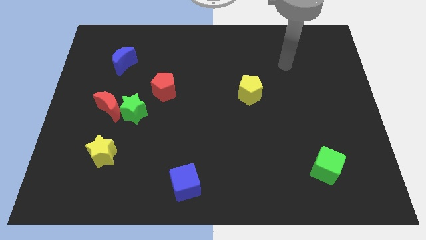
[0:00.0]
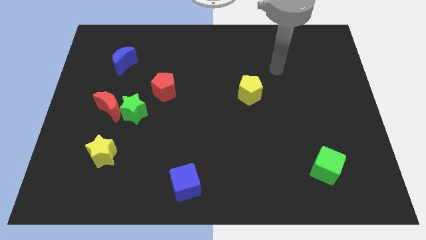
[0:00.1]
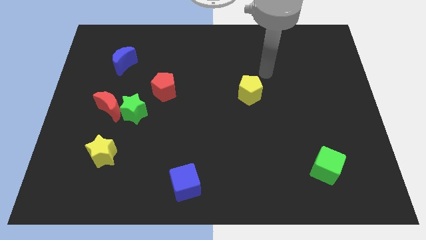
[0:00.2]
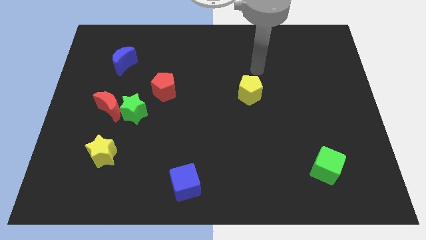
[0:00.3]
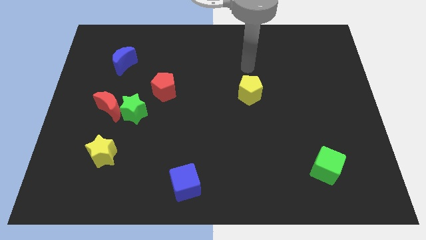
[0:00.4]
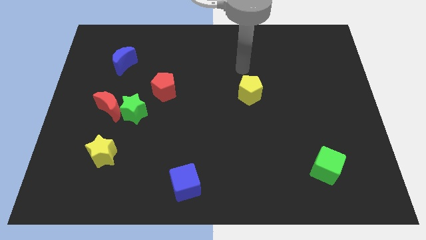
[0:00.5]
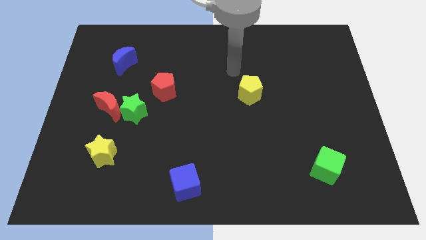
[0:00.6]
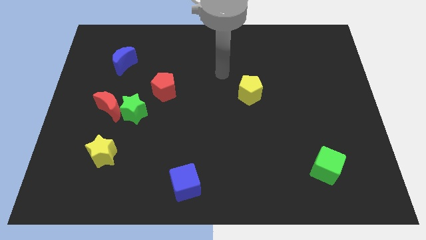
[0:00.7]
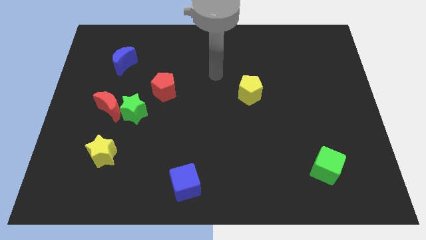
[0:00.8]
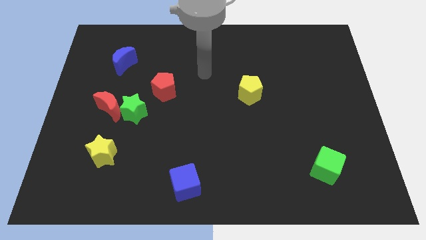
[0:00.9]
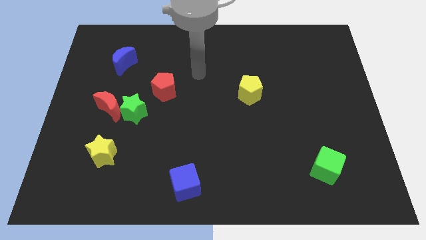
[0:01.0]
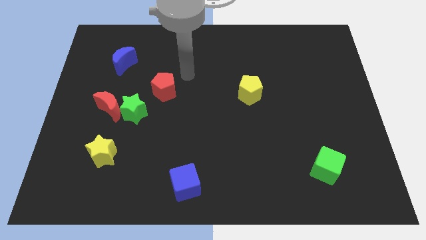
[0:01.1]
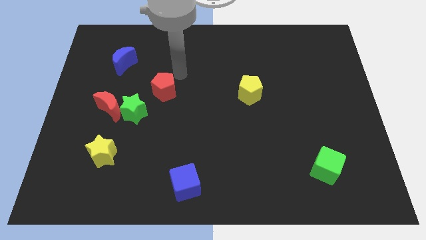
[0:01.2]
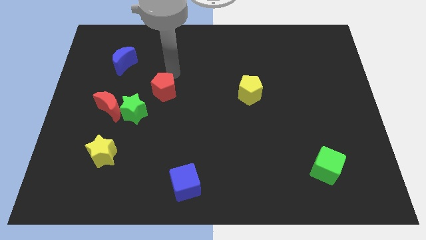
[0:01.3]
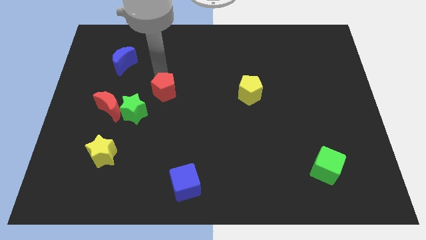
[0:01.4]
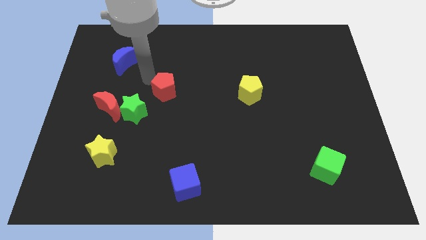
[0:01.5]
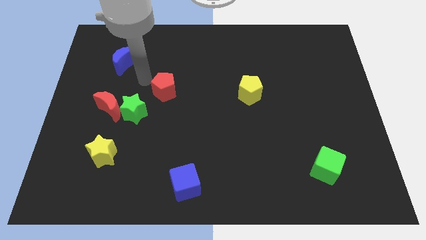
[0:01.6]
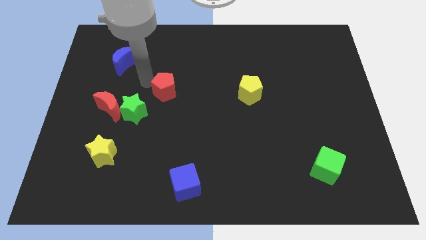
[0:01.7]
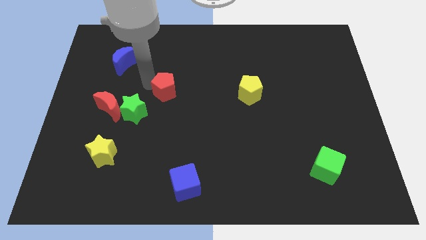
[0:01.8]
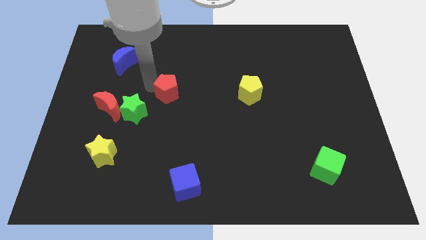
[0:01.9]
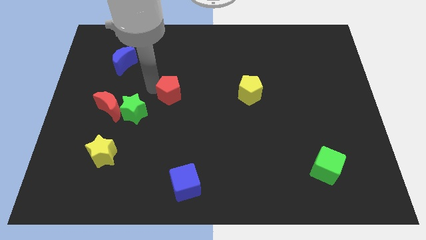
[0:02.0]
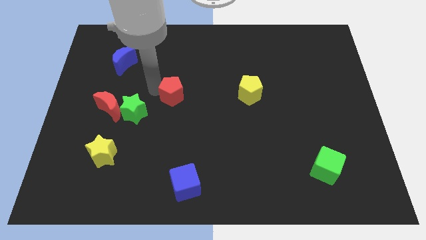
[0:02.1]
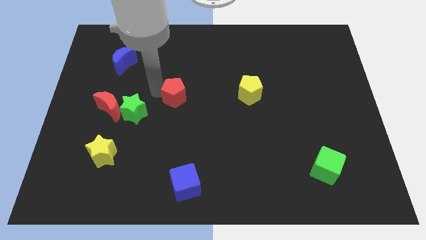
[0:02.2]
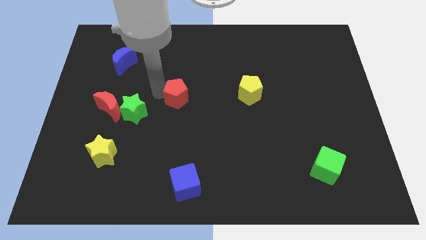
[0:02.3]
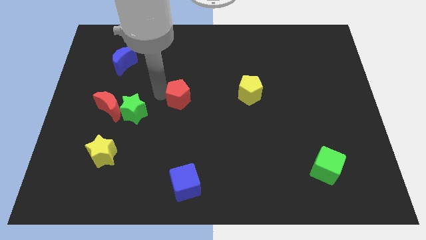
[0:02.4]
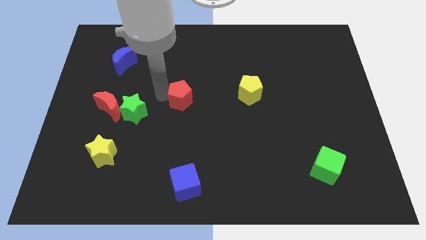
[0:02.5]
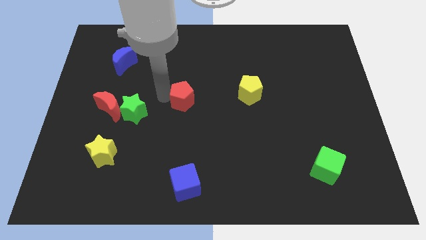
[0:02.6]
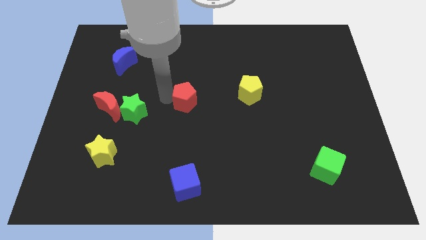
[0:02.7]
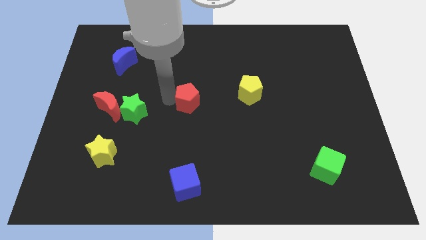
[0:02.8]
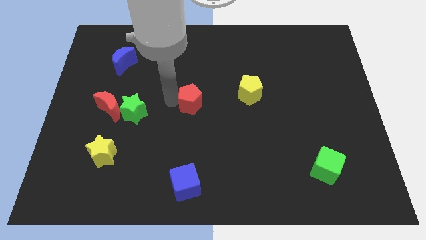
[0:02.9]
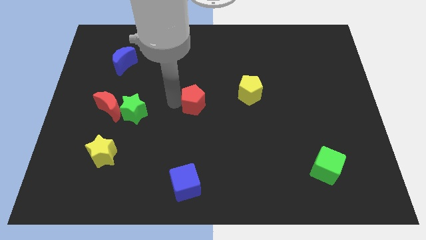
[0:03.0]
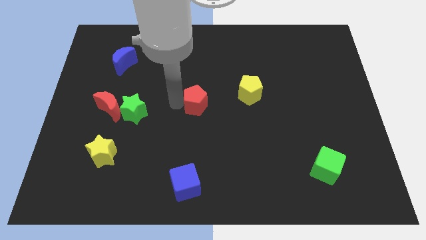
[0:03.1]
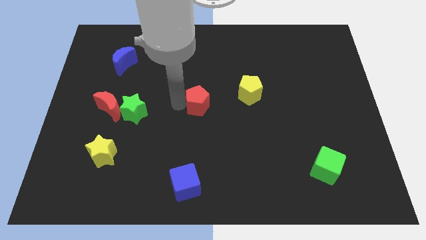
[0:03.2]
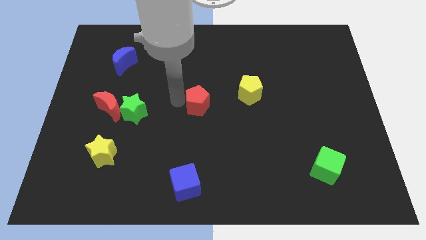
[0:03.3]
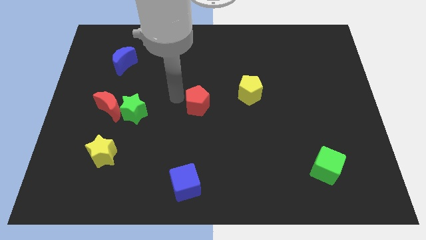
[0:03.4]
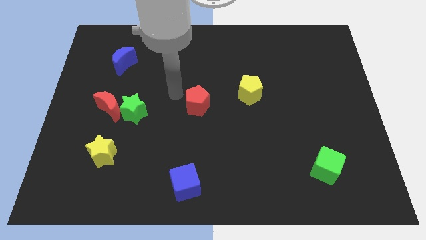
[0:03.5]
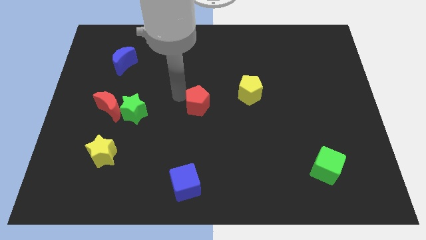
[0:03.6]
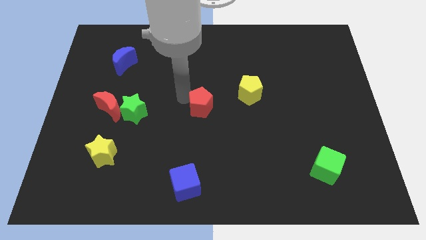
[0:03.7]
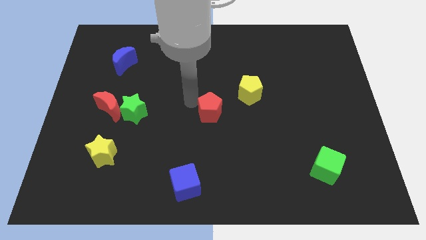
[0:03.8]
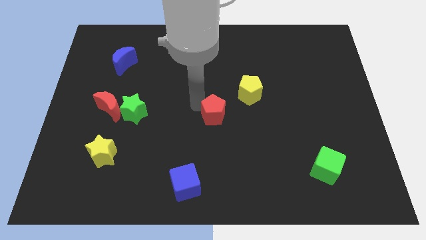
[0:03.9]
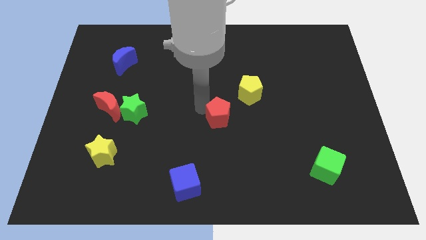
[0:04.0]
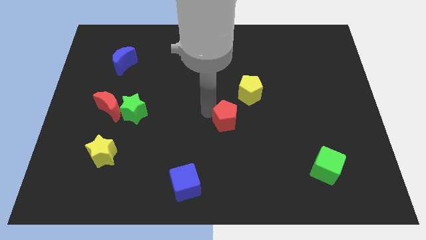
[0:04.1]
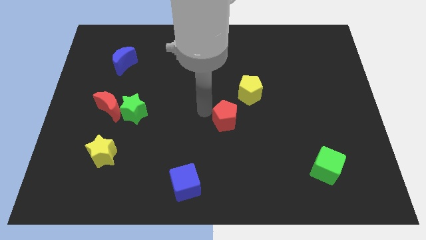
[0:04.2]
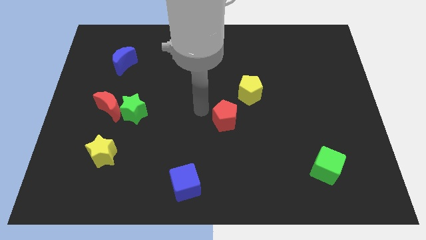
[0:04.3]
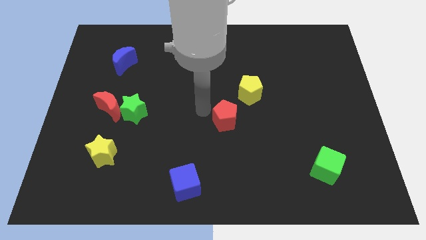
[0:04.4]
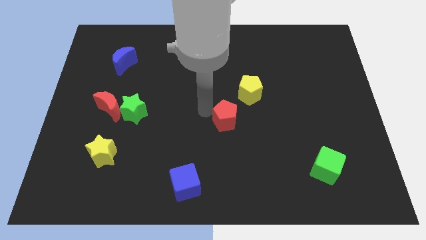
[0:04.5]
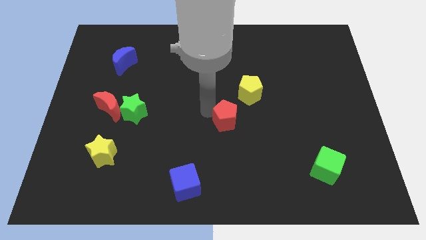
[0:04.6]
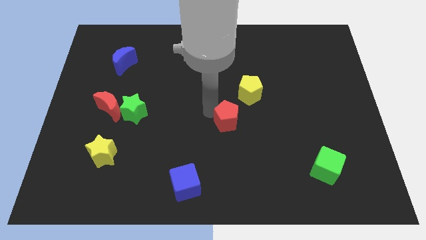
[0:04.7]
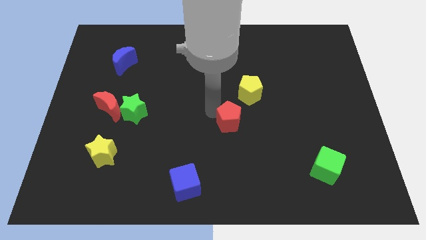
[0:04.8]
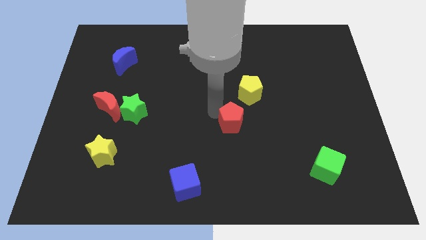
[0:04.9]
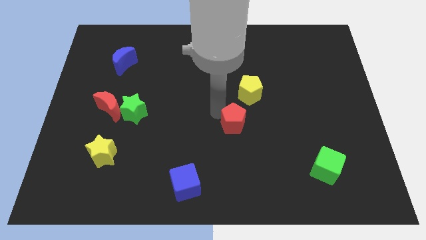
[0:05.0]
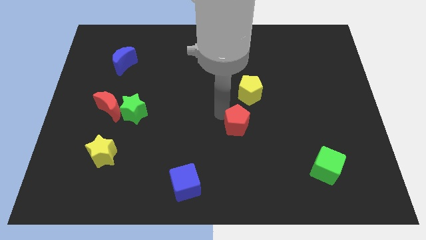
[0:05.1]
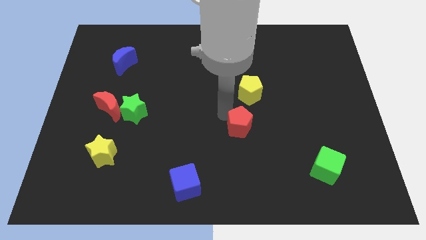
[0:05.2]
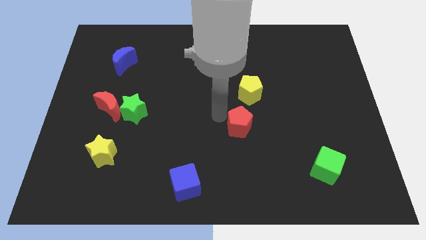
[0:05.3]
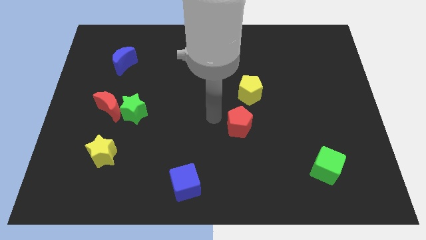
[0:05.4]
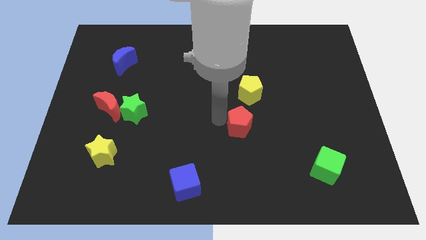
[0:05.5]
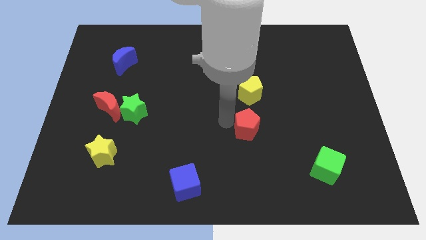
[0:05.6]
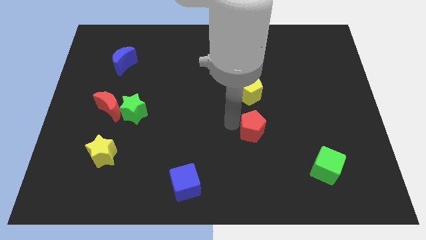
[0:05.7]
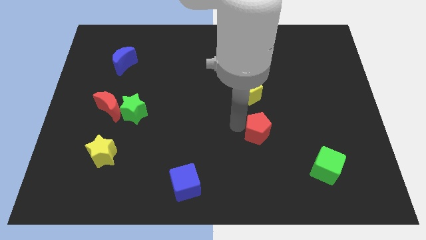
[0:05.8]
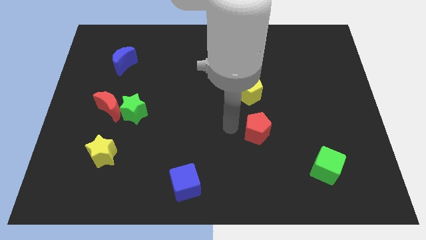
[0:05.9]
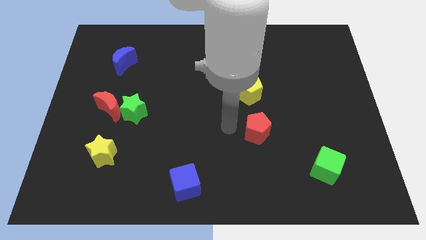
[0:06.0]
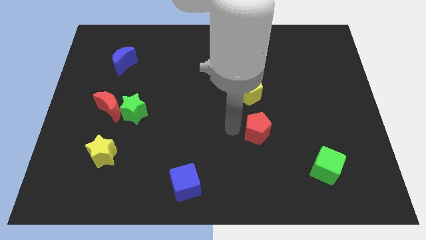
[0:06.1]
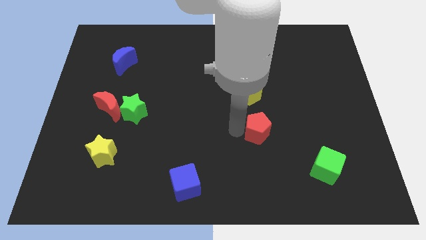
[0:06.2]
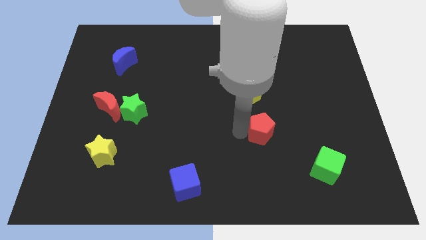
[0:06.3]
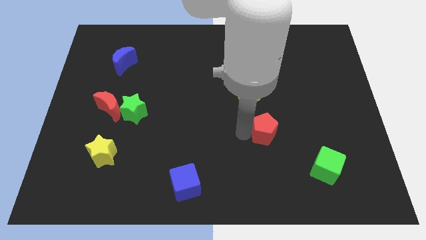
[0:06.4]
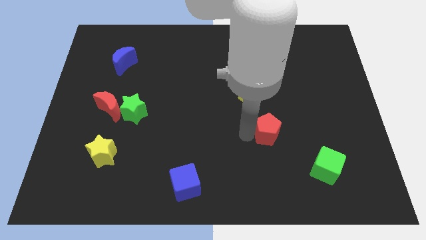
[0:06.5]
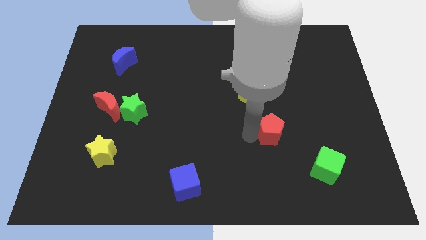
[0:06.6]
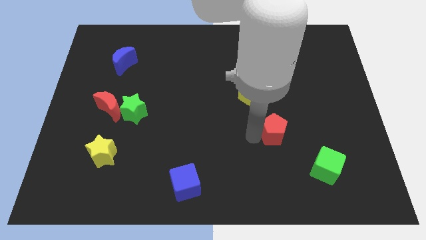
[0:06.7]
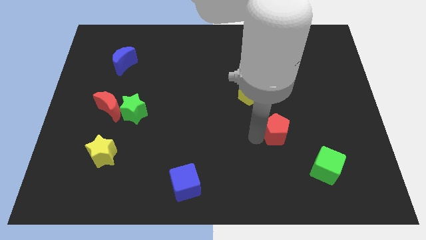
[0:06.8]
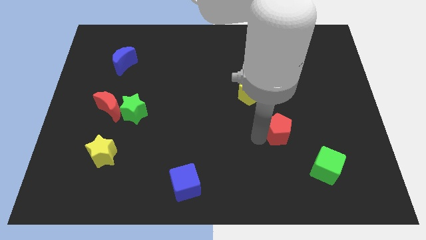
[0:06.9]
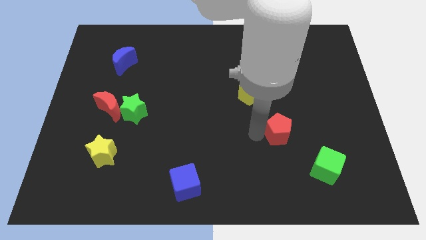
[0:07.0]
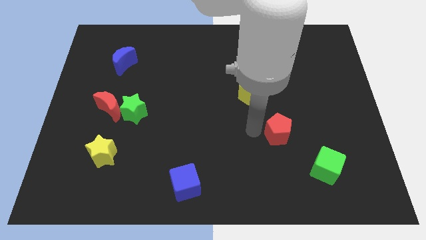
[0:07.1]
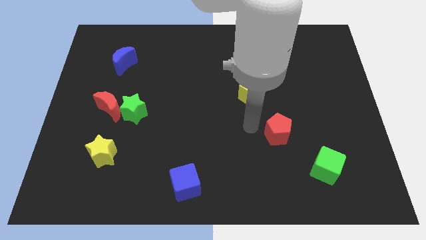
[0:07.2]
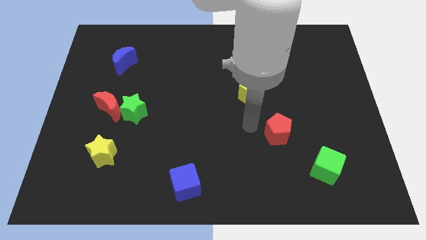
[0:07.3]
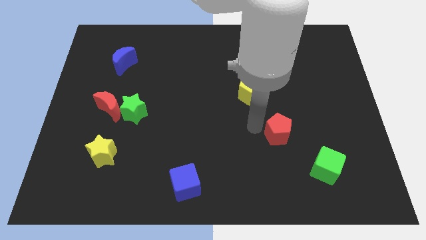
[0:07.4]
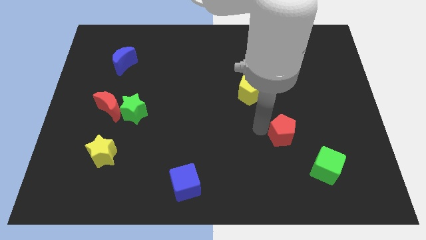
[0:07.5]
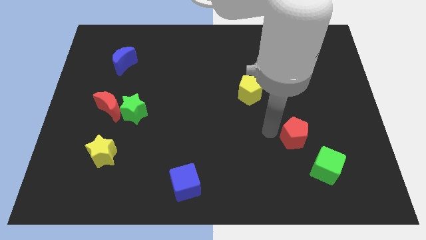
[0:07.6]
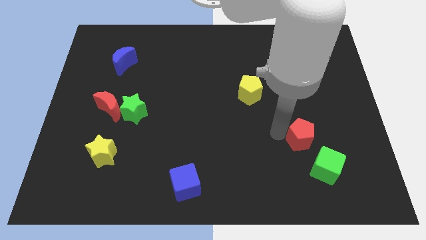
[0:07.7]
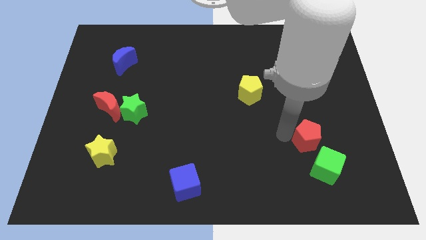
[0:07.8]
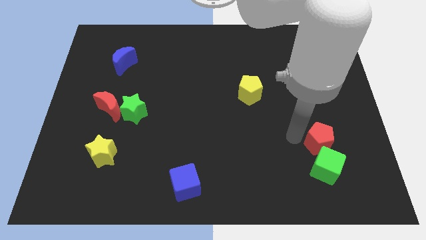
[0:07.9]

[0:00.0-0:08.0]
put the red pentagon to the top right of the green cube
